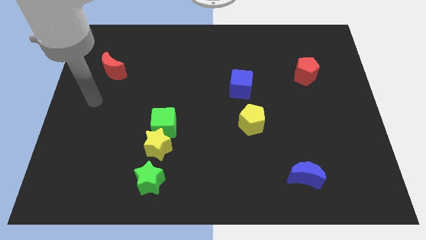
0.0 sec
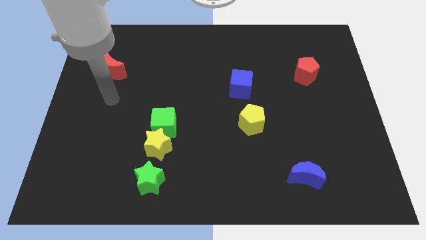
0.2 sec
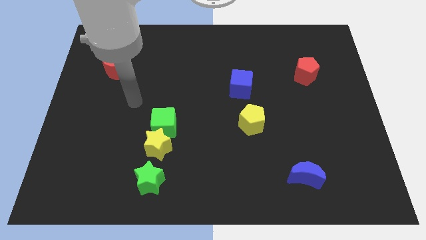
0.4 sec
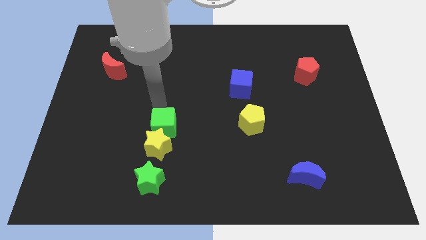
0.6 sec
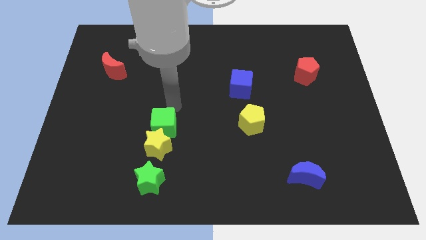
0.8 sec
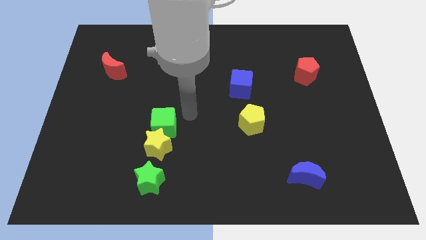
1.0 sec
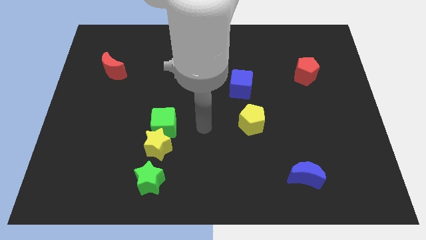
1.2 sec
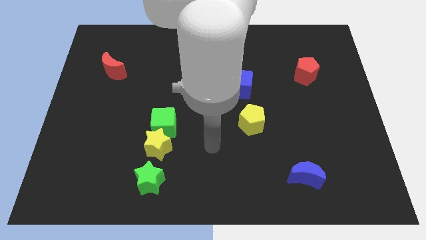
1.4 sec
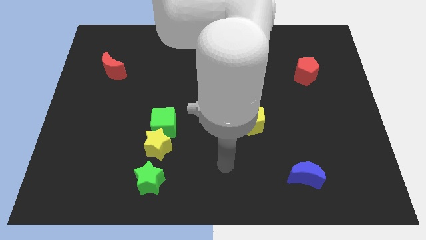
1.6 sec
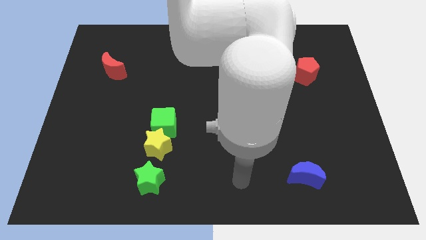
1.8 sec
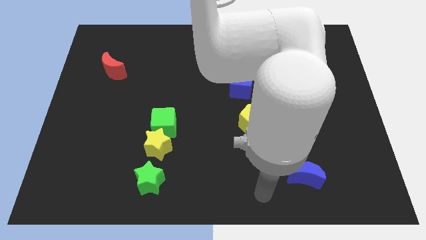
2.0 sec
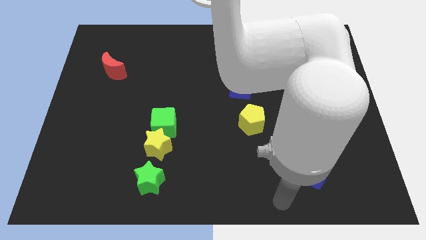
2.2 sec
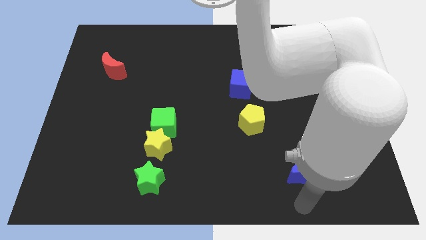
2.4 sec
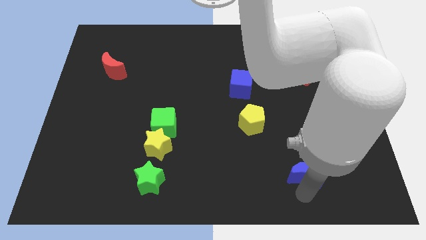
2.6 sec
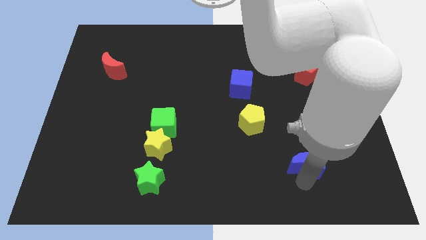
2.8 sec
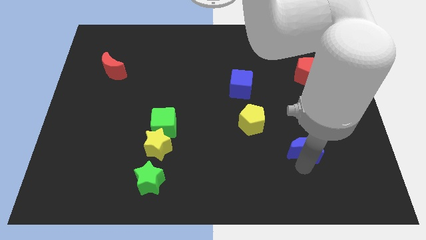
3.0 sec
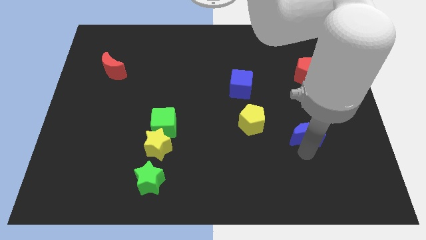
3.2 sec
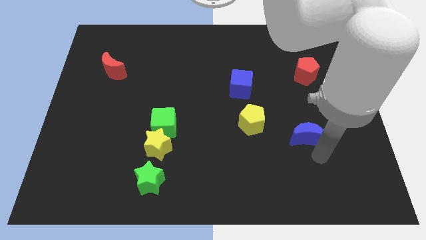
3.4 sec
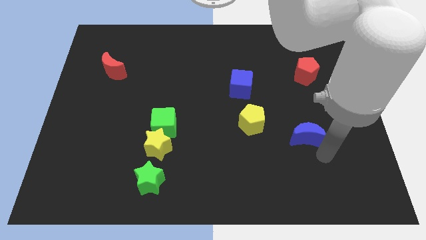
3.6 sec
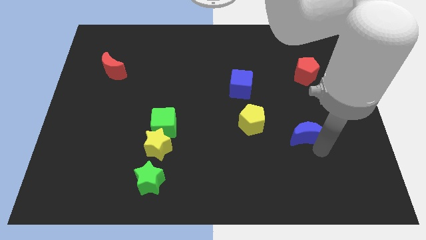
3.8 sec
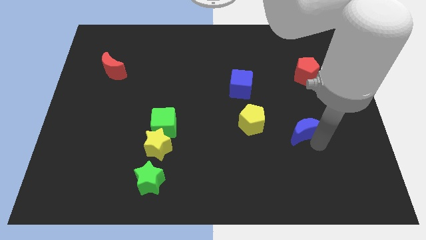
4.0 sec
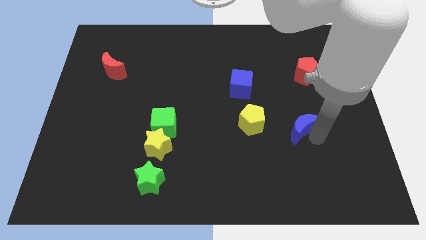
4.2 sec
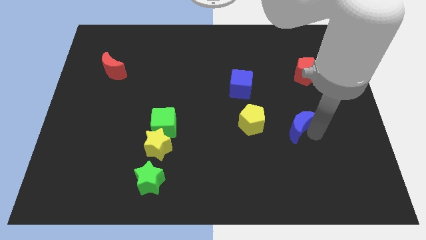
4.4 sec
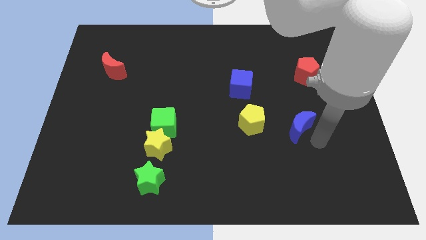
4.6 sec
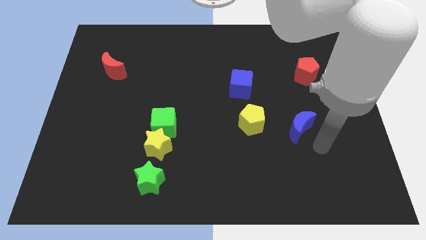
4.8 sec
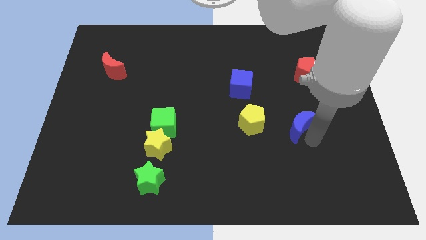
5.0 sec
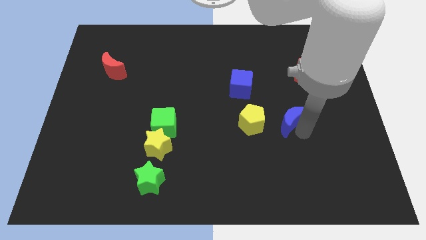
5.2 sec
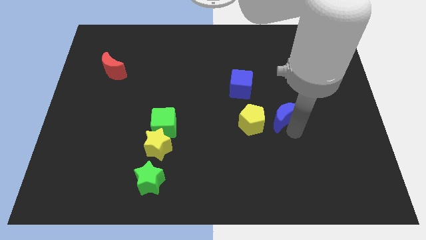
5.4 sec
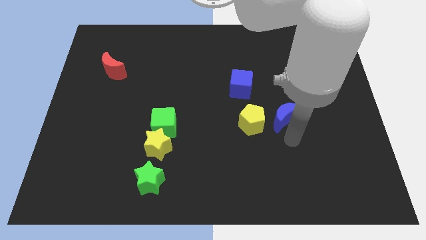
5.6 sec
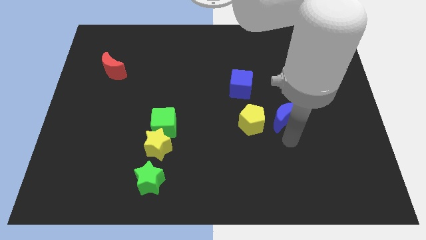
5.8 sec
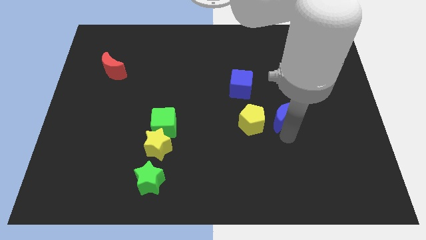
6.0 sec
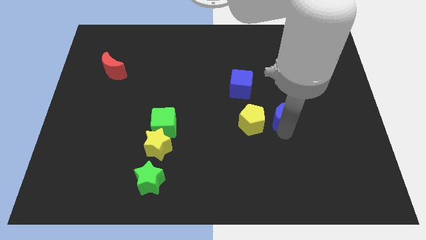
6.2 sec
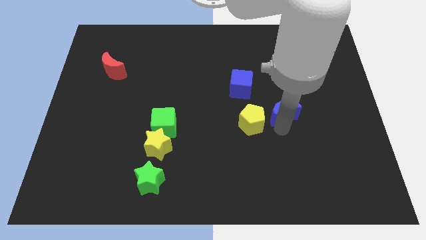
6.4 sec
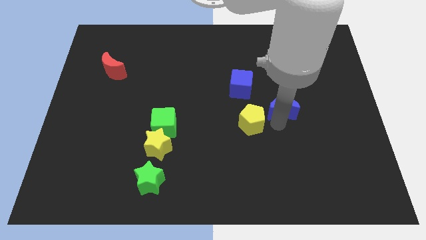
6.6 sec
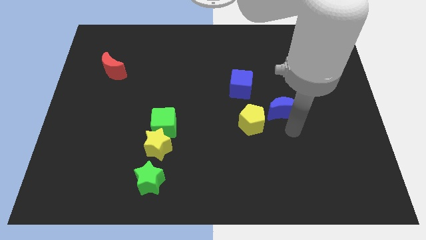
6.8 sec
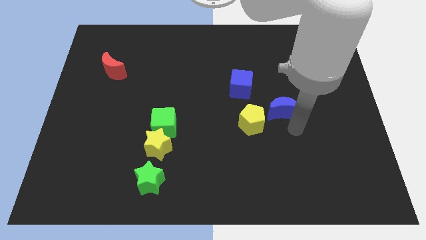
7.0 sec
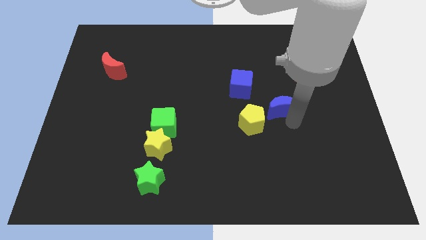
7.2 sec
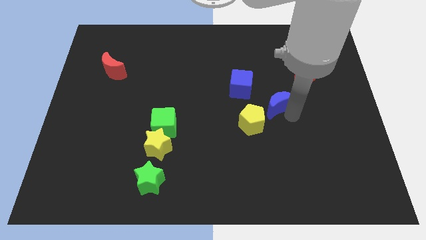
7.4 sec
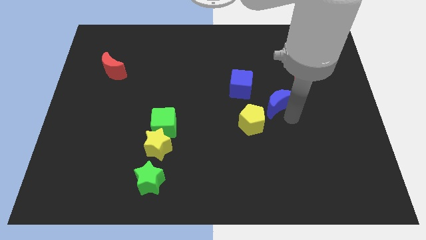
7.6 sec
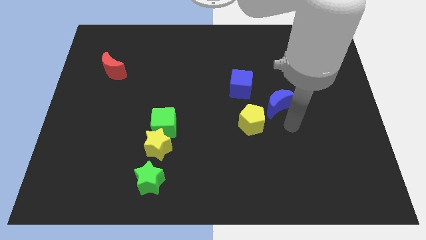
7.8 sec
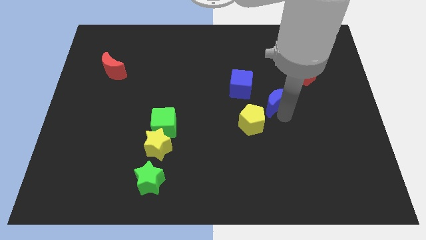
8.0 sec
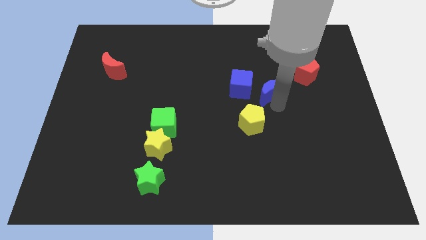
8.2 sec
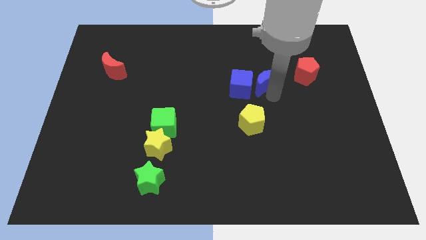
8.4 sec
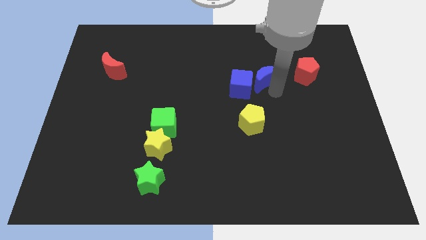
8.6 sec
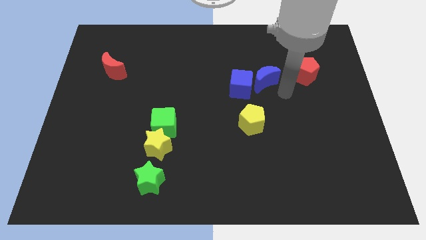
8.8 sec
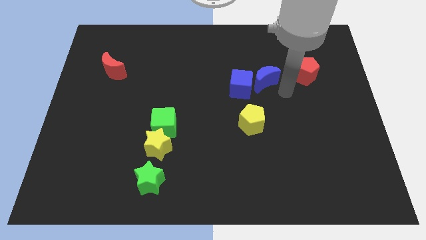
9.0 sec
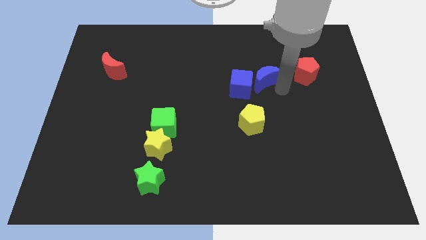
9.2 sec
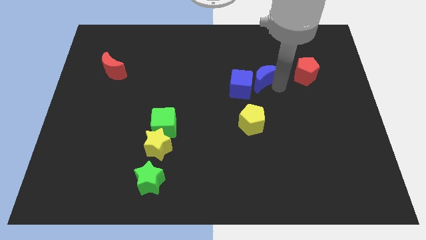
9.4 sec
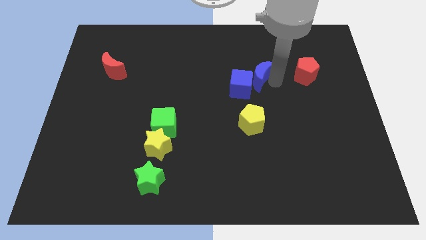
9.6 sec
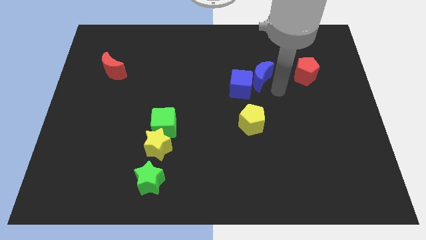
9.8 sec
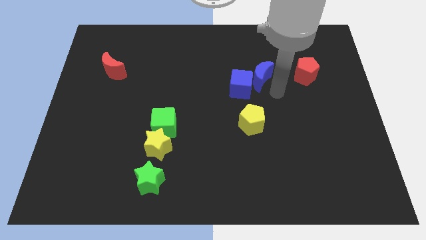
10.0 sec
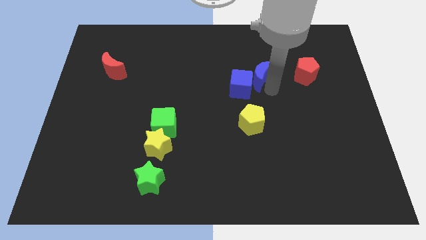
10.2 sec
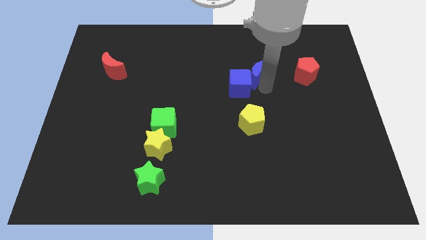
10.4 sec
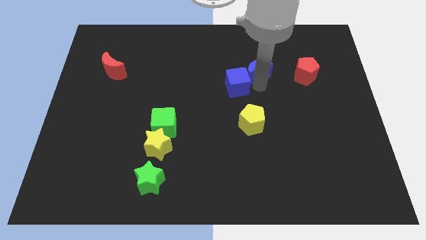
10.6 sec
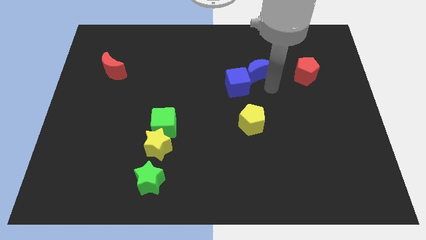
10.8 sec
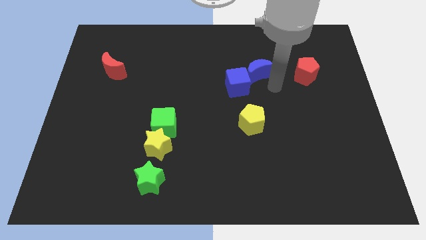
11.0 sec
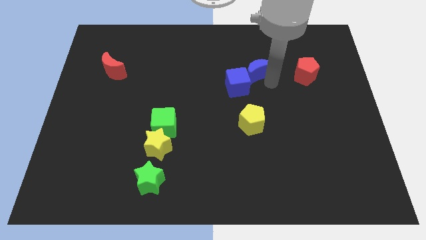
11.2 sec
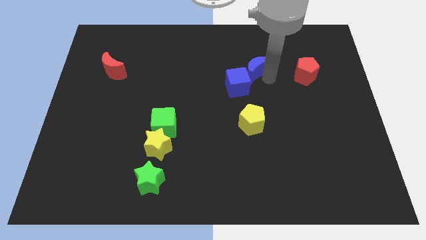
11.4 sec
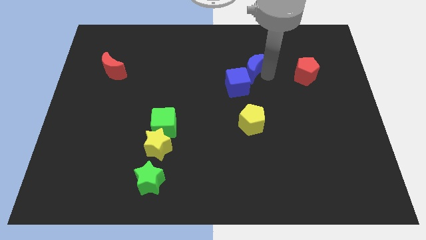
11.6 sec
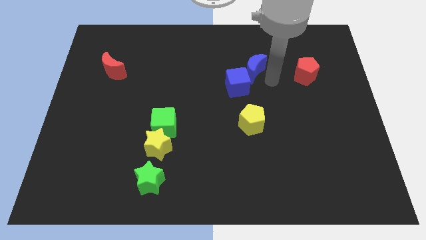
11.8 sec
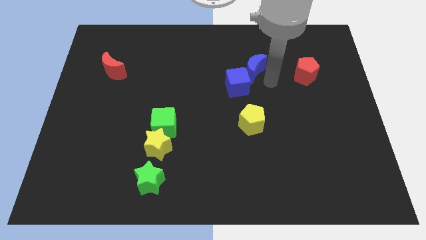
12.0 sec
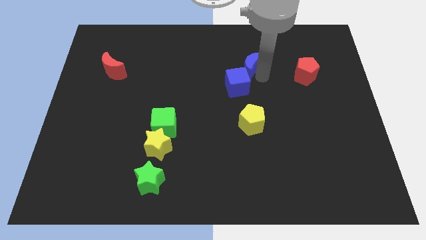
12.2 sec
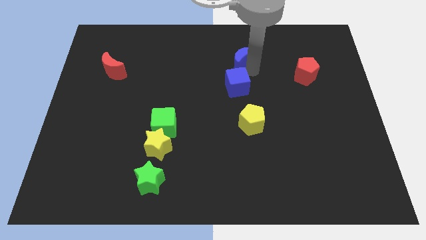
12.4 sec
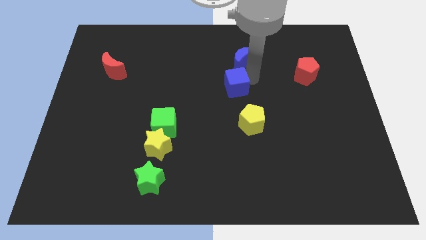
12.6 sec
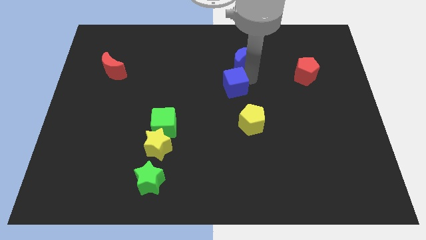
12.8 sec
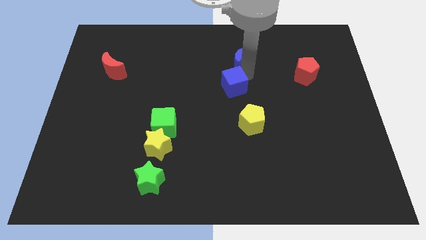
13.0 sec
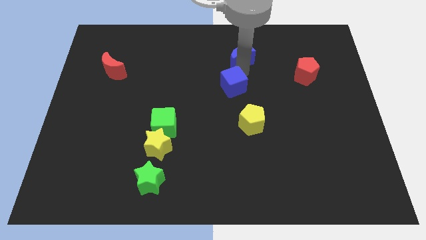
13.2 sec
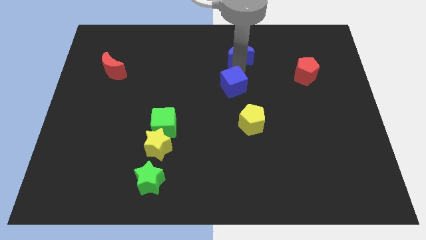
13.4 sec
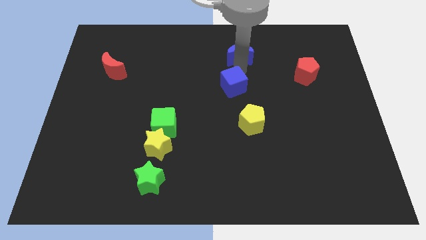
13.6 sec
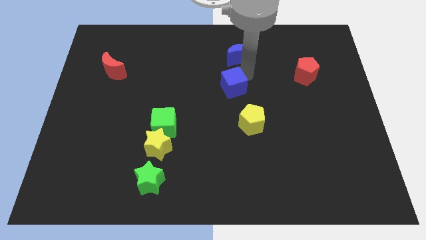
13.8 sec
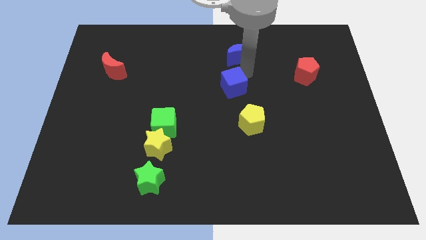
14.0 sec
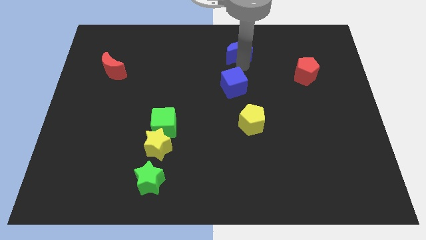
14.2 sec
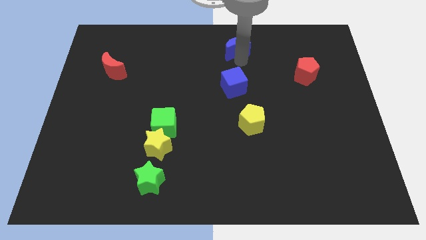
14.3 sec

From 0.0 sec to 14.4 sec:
put the blue moon to the top side
